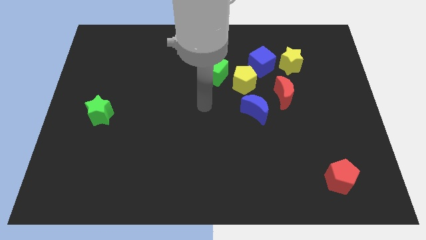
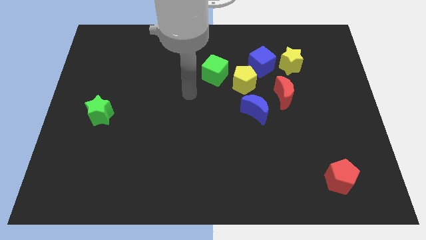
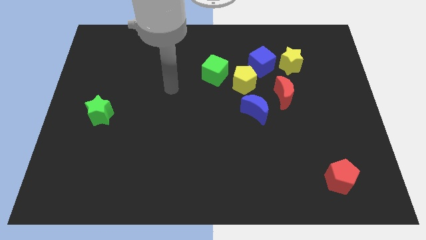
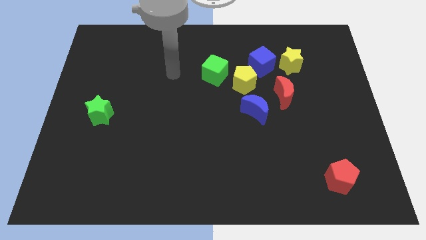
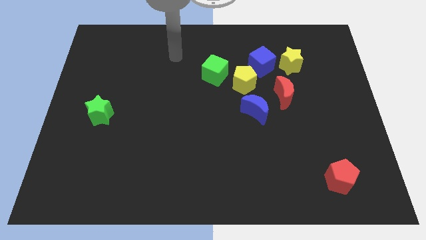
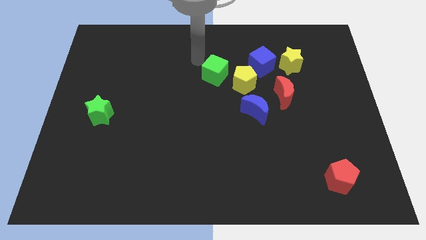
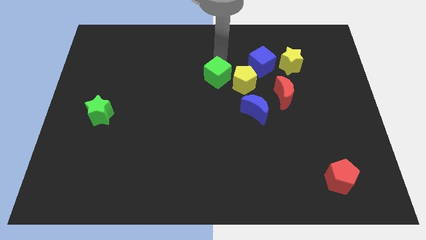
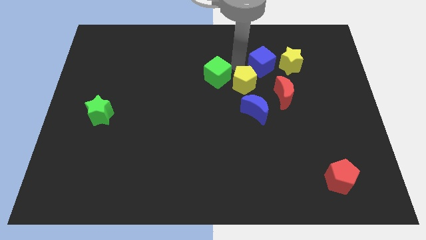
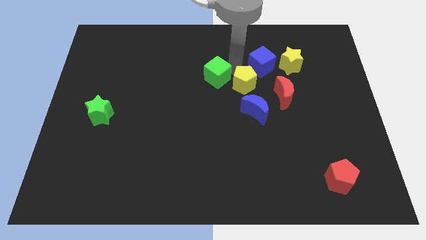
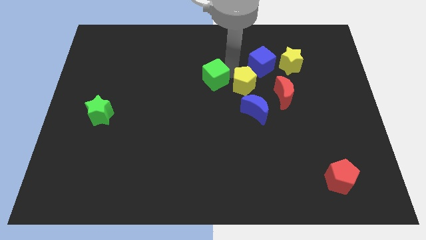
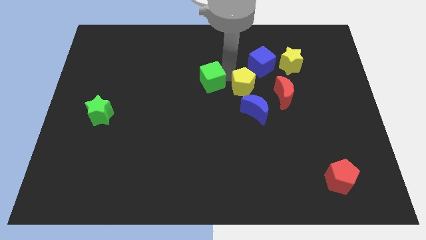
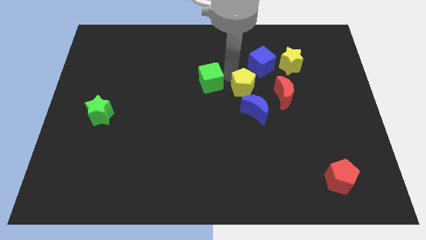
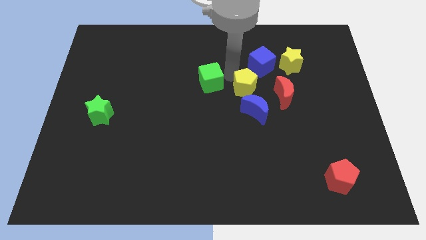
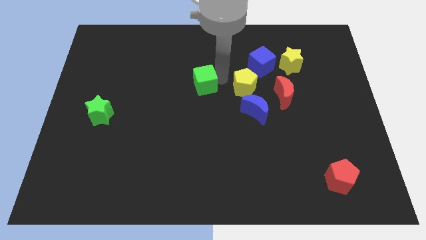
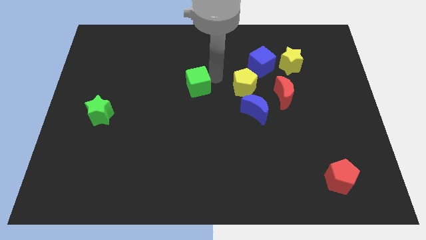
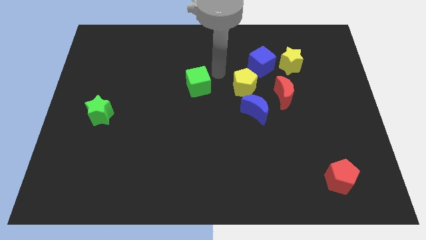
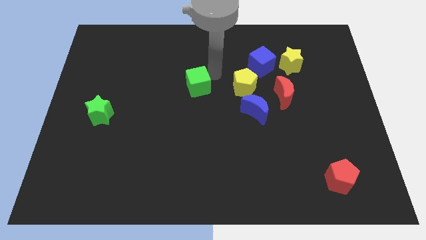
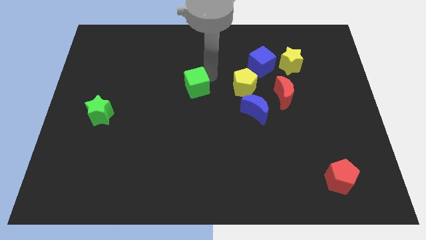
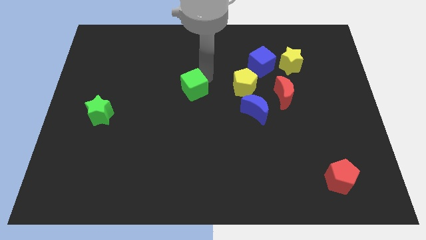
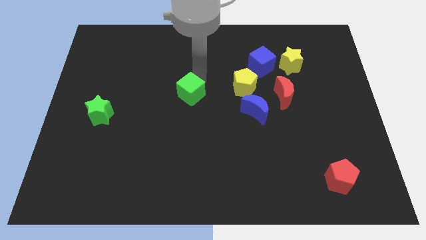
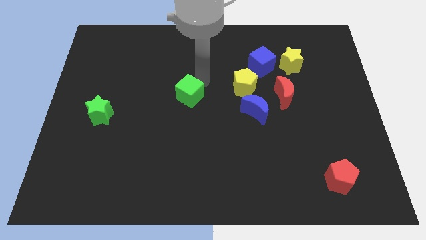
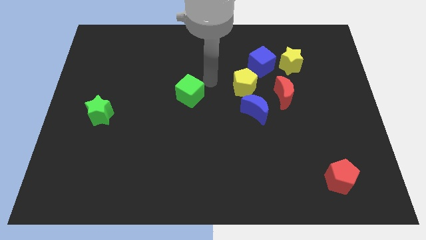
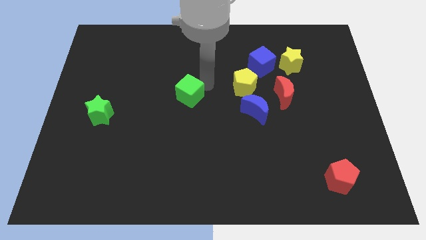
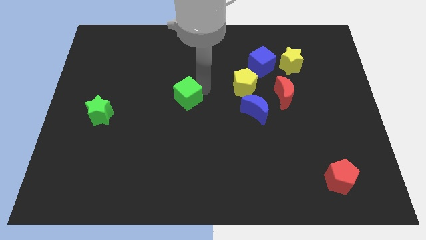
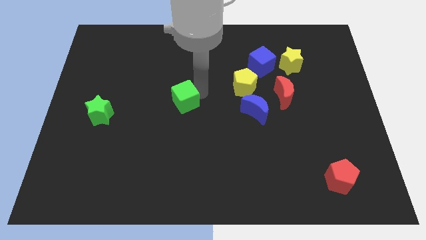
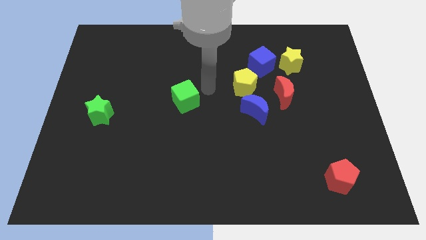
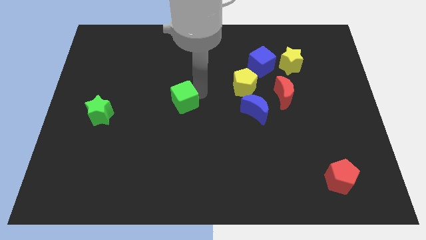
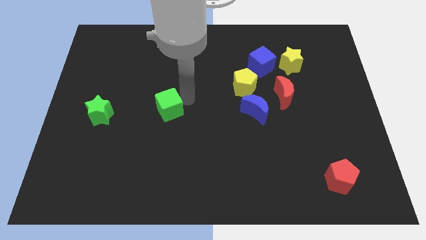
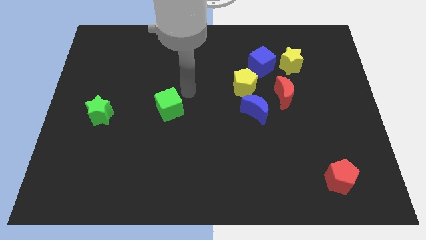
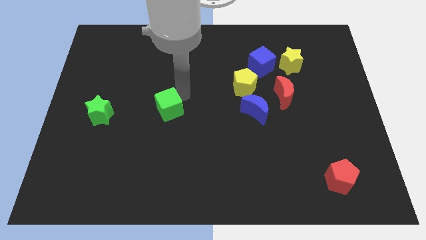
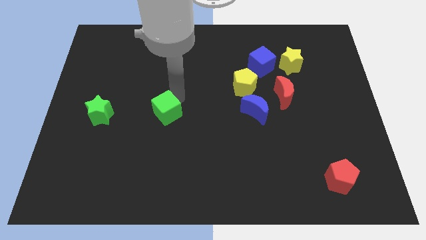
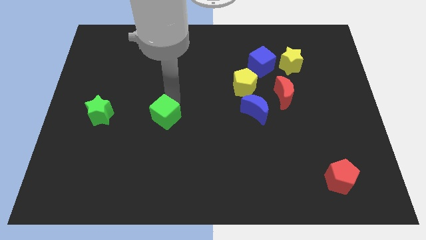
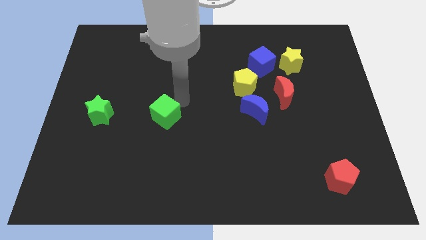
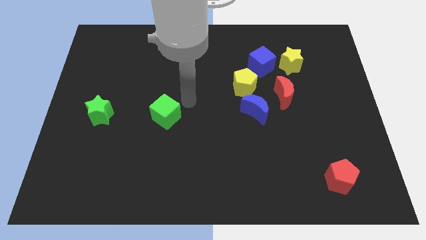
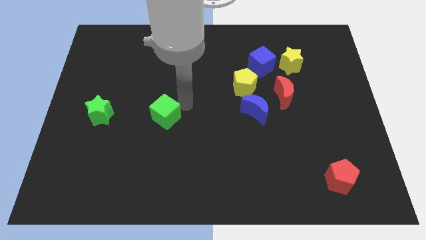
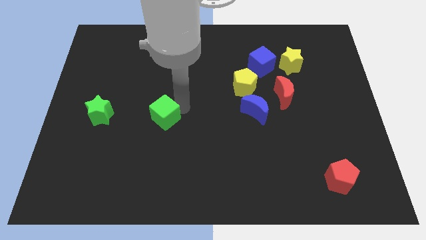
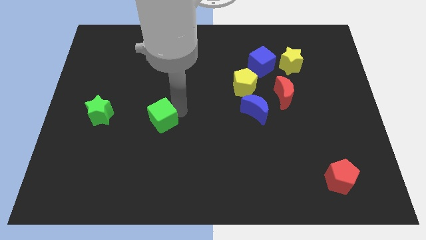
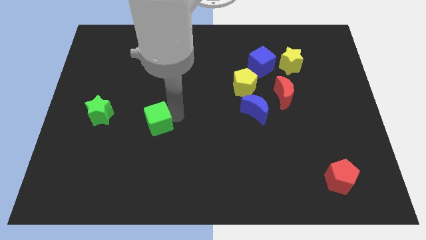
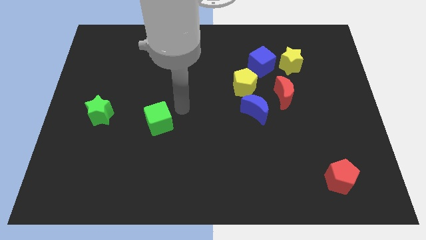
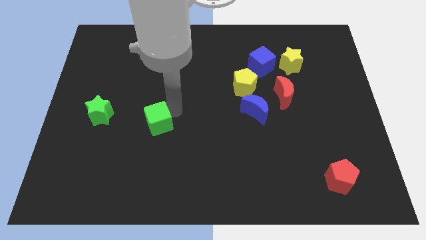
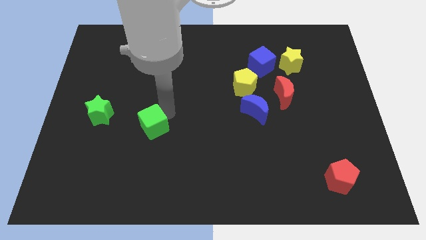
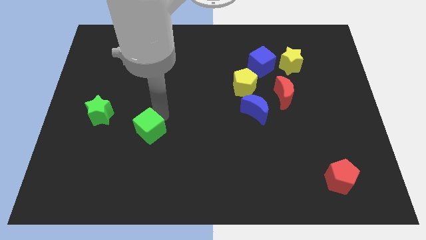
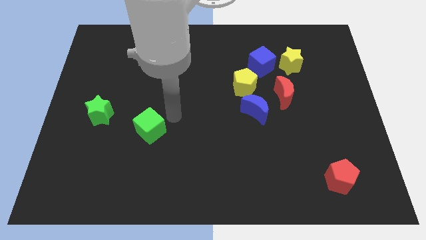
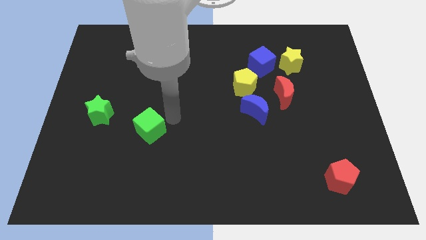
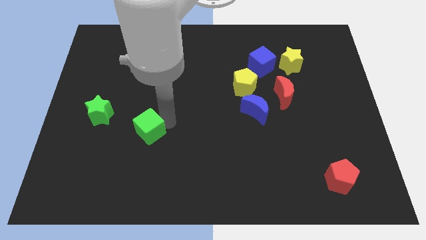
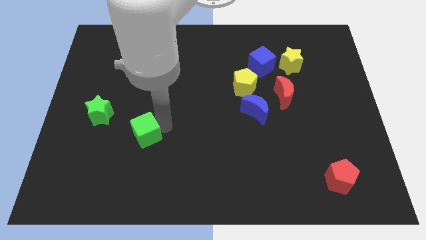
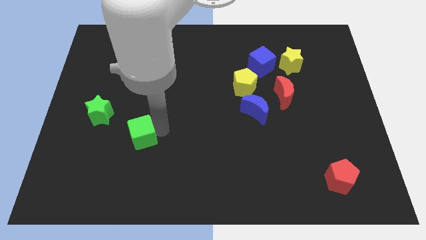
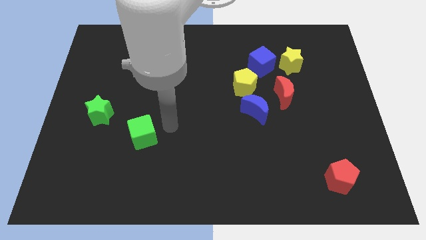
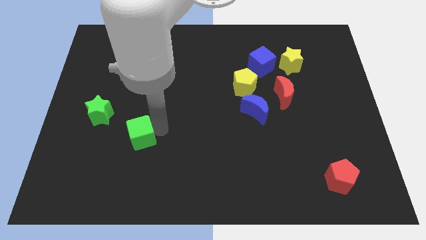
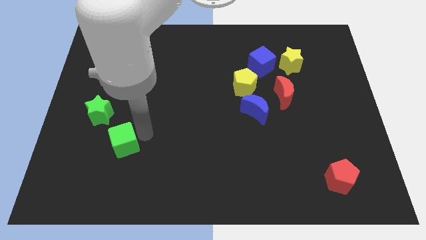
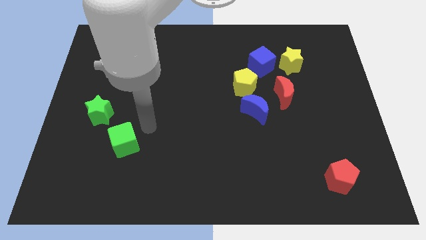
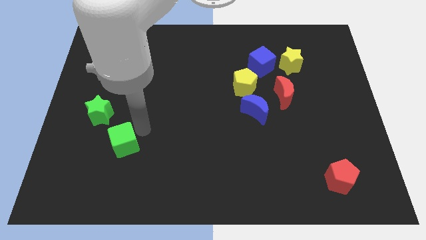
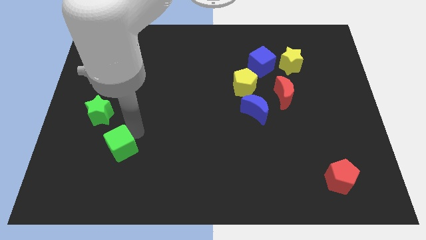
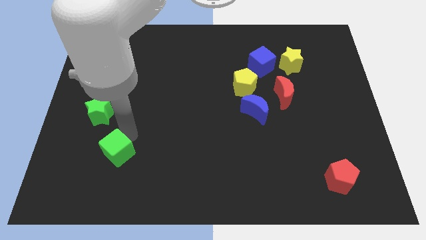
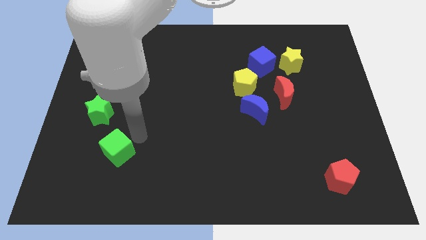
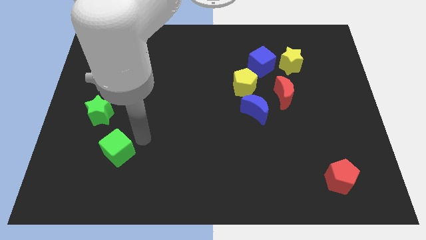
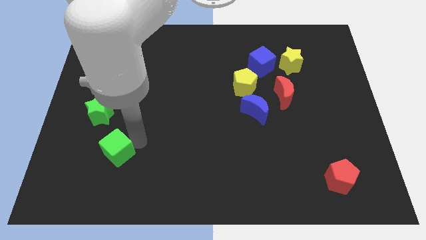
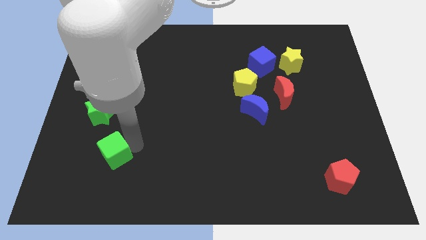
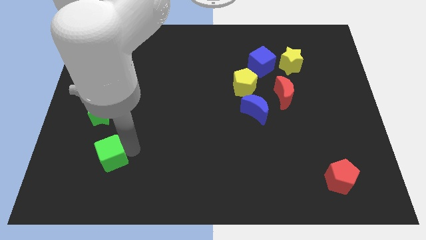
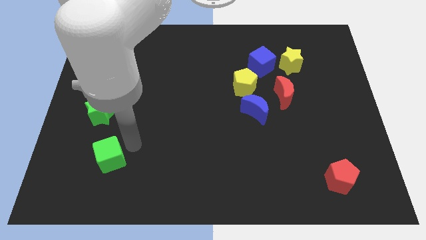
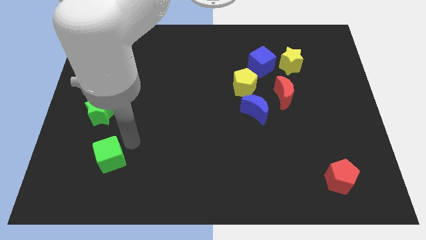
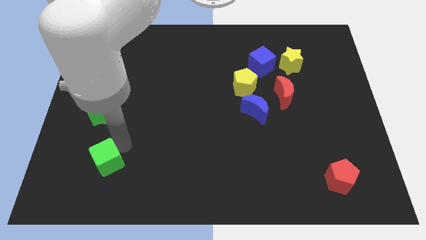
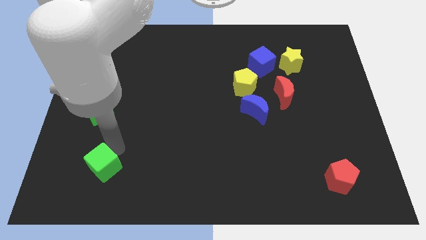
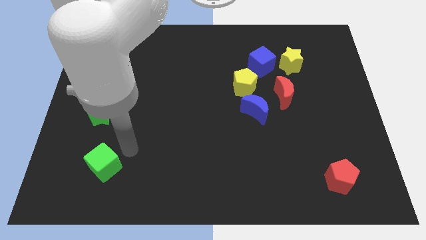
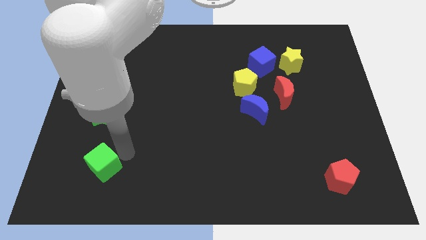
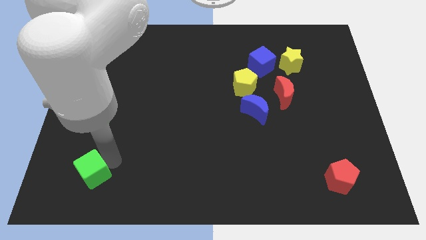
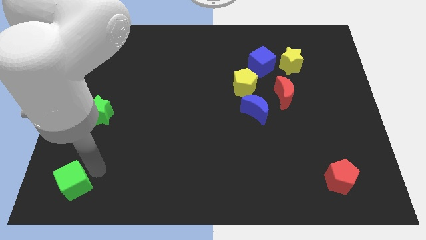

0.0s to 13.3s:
slide the green cube to the lower left corner
